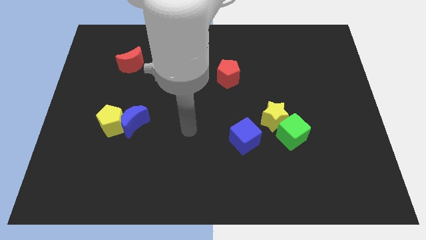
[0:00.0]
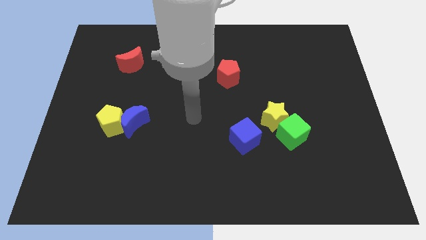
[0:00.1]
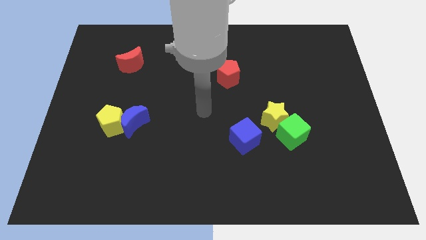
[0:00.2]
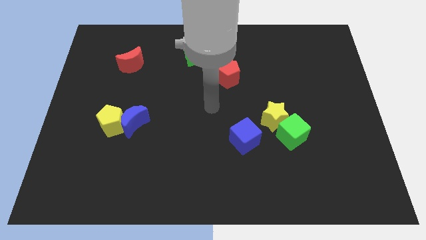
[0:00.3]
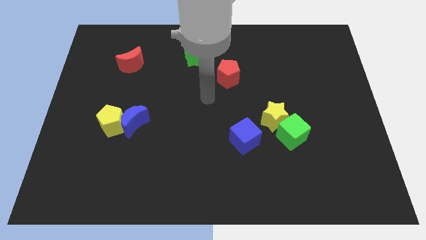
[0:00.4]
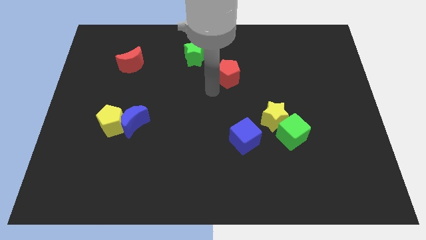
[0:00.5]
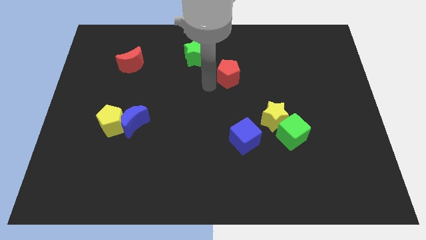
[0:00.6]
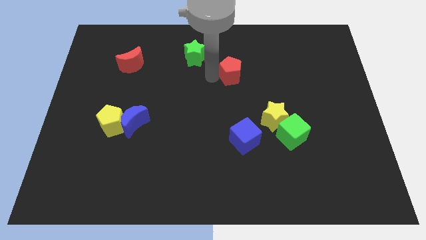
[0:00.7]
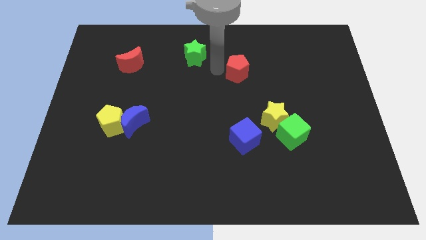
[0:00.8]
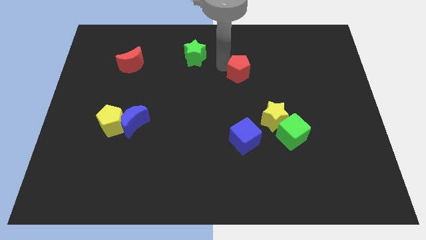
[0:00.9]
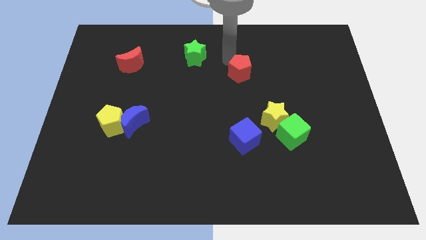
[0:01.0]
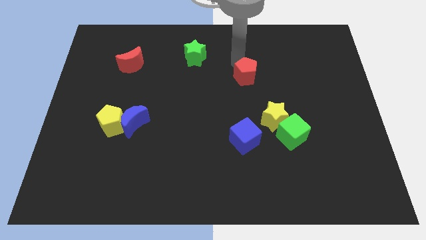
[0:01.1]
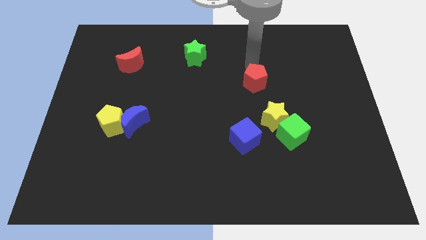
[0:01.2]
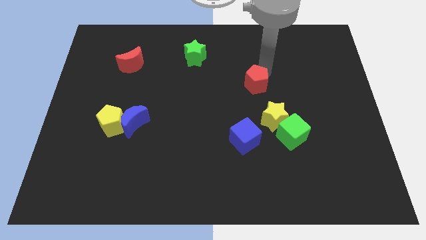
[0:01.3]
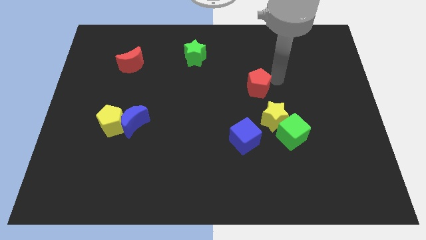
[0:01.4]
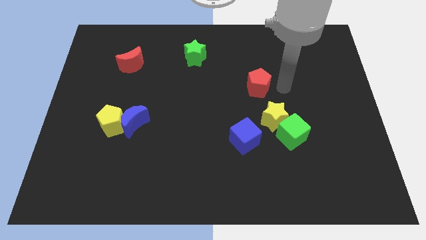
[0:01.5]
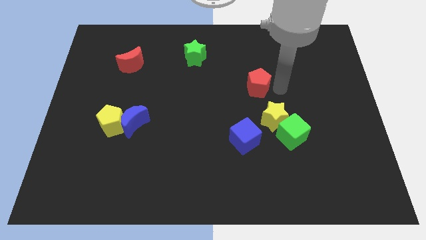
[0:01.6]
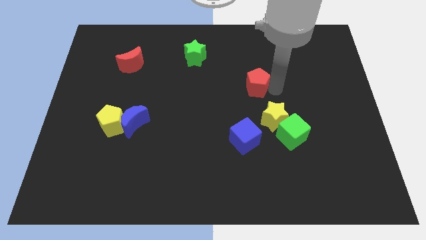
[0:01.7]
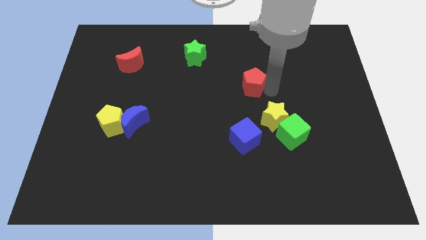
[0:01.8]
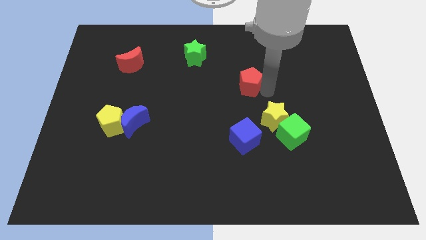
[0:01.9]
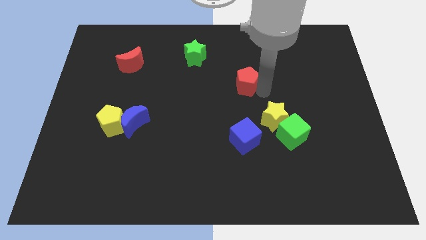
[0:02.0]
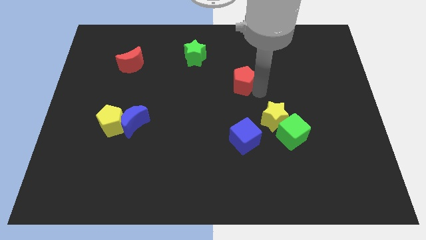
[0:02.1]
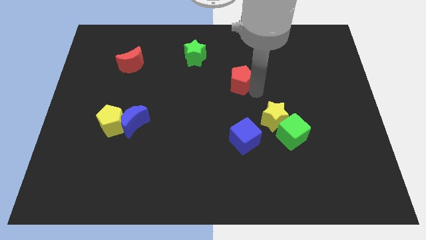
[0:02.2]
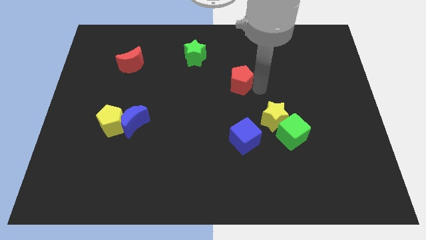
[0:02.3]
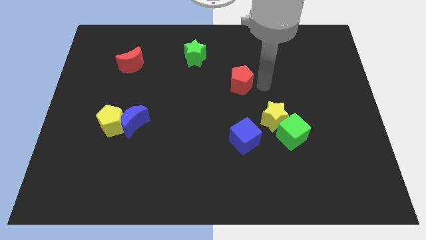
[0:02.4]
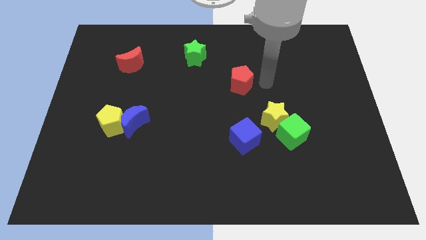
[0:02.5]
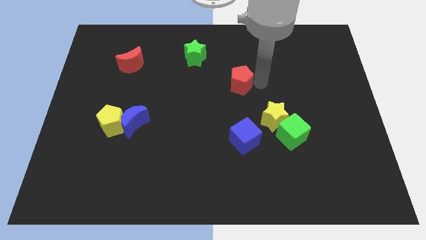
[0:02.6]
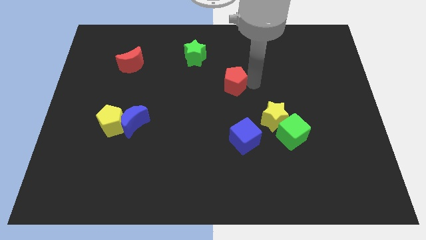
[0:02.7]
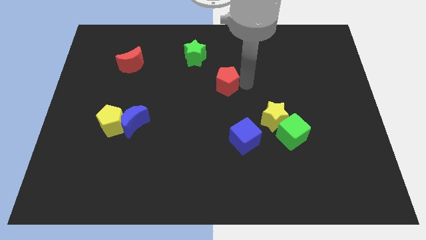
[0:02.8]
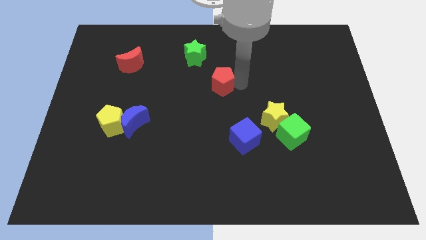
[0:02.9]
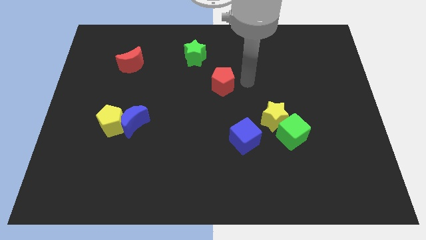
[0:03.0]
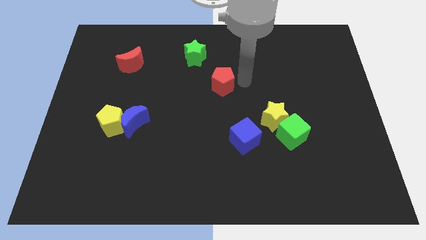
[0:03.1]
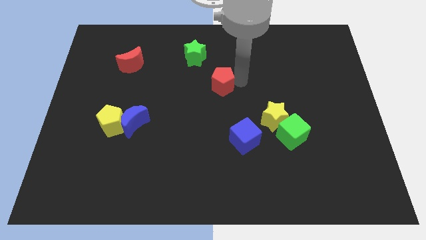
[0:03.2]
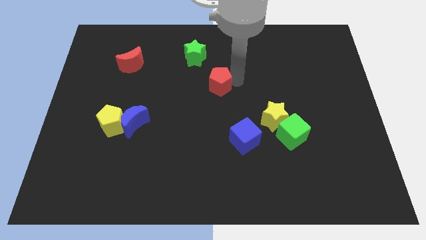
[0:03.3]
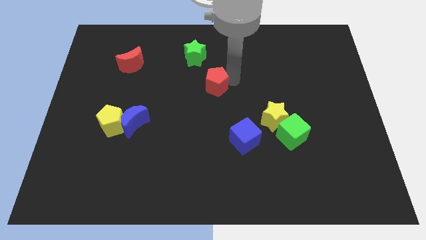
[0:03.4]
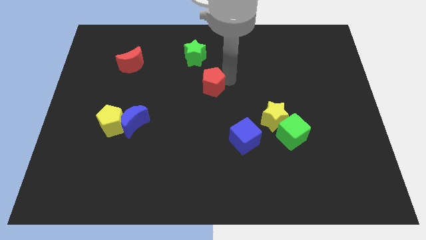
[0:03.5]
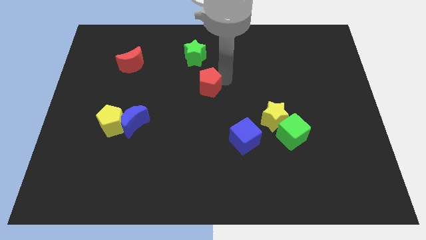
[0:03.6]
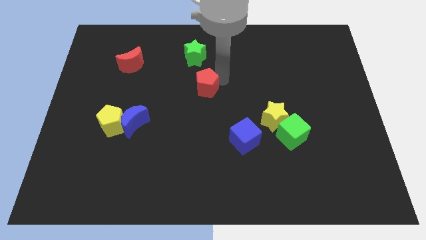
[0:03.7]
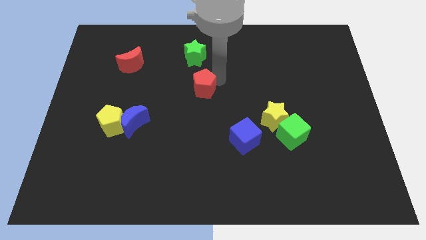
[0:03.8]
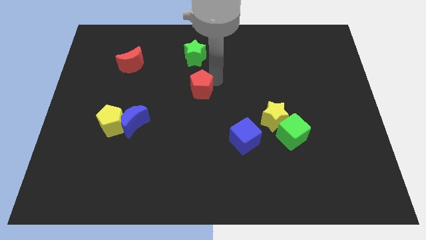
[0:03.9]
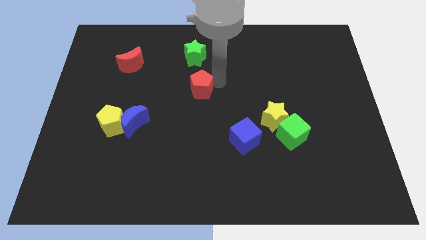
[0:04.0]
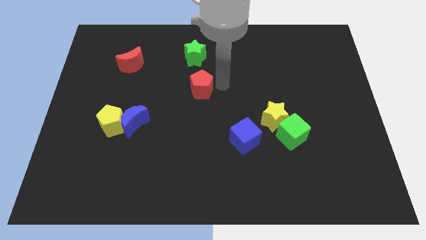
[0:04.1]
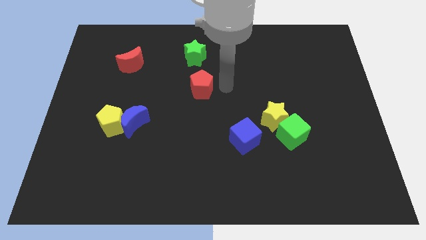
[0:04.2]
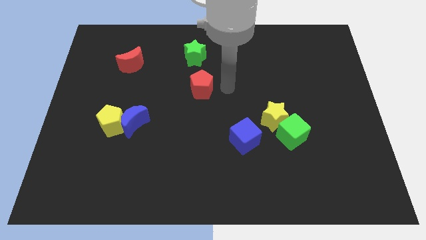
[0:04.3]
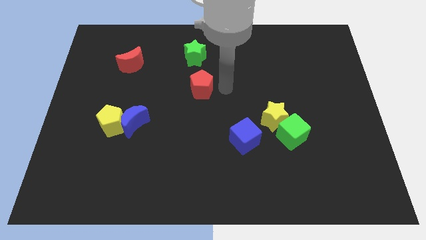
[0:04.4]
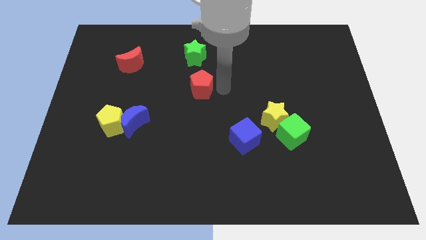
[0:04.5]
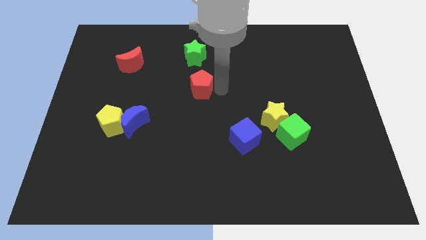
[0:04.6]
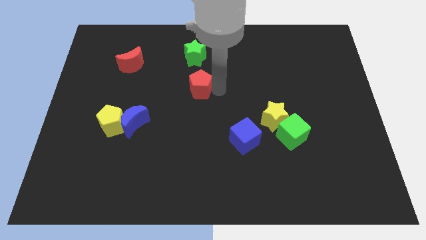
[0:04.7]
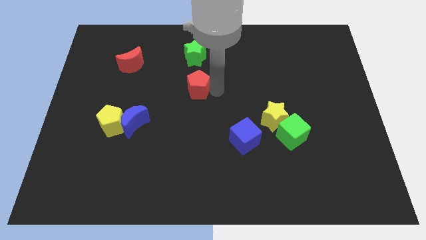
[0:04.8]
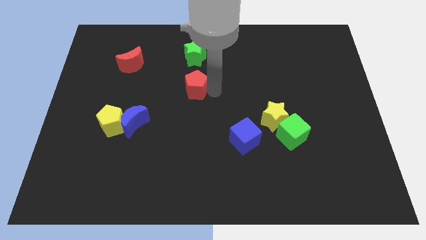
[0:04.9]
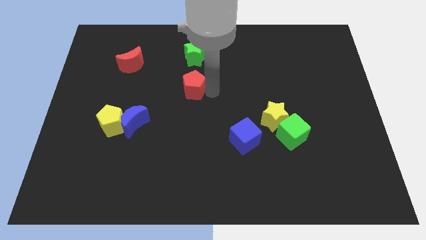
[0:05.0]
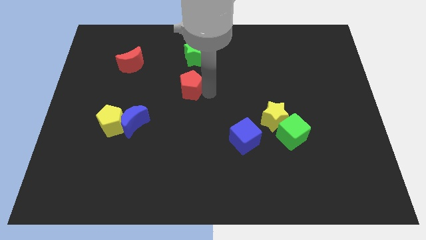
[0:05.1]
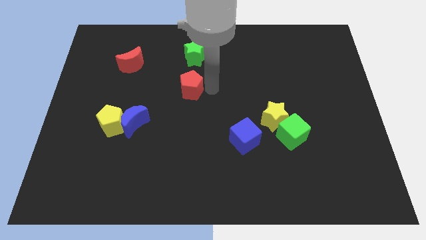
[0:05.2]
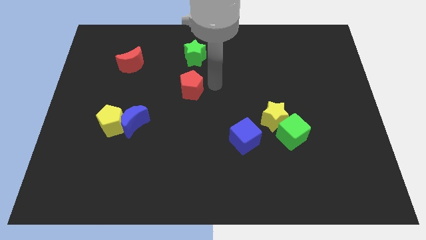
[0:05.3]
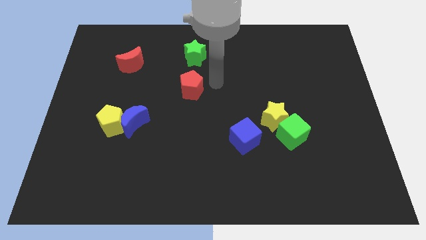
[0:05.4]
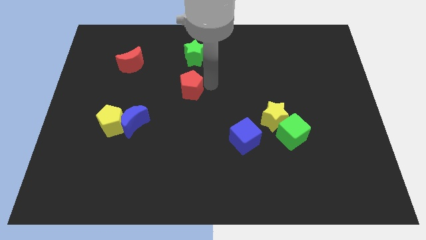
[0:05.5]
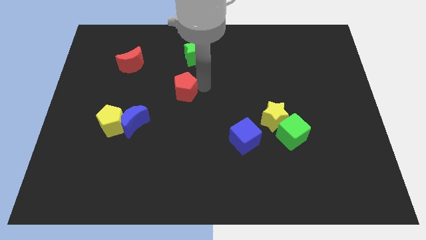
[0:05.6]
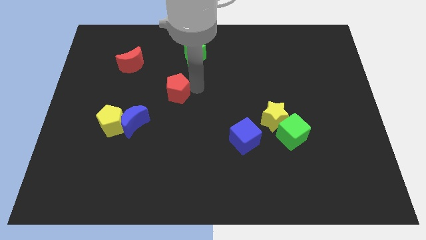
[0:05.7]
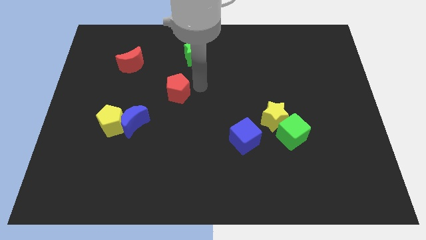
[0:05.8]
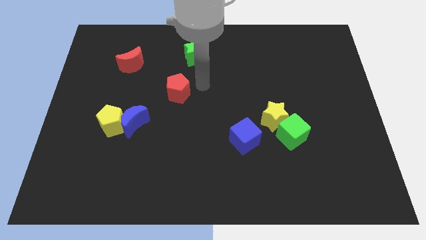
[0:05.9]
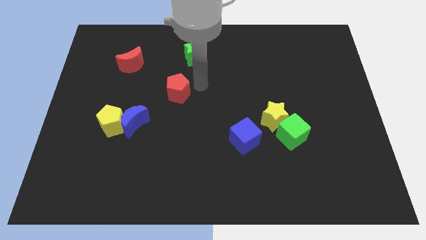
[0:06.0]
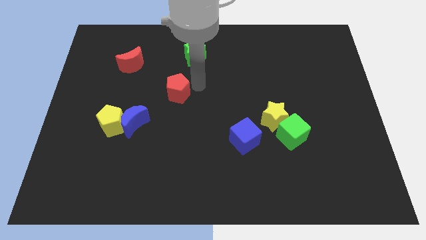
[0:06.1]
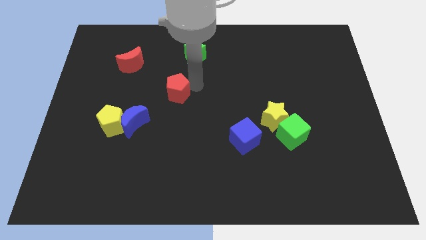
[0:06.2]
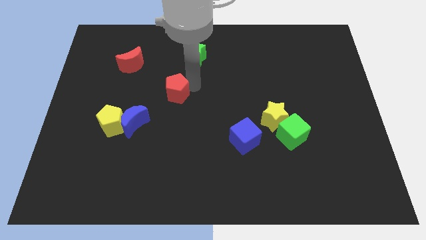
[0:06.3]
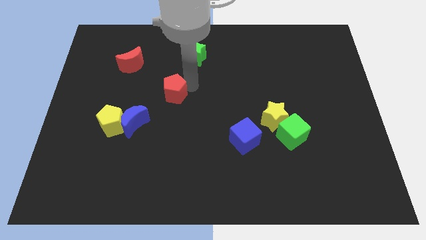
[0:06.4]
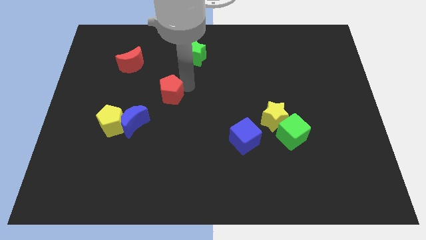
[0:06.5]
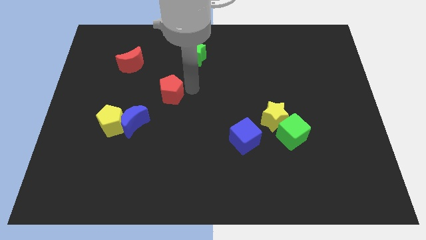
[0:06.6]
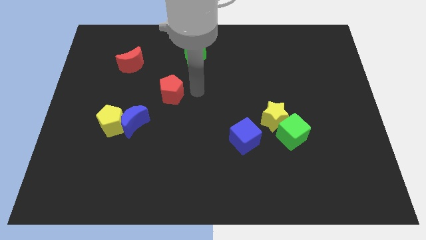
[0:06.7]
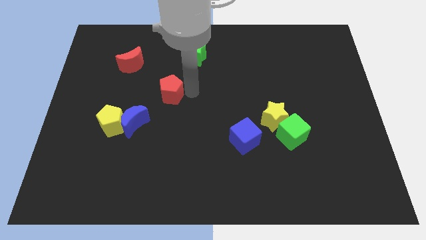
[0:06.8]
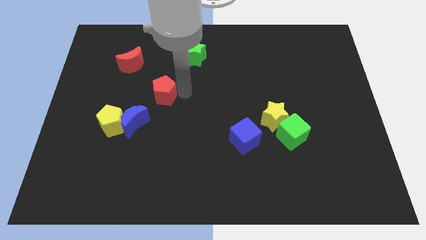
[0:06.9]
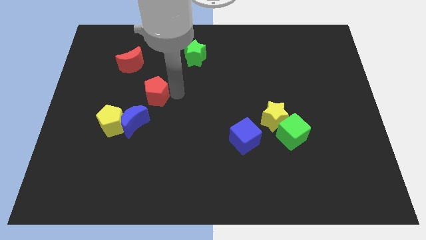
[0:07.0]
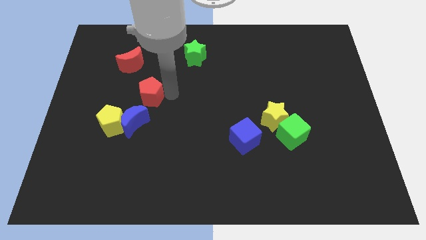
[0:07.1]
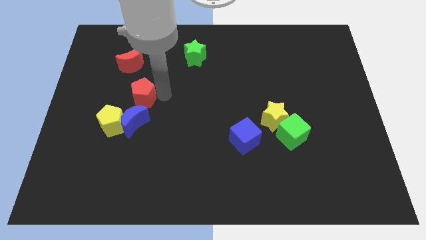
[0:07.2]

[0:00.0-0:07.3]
put the red pentagon to the bottom side of the red moon
